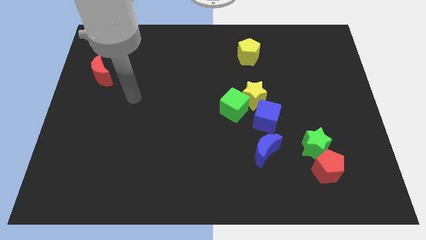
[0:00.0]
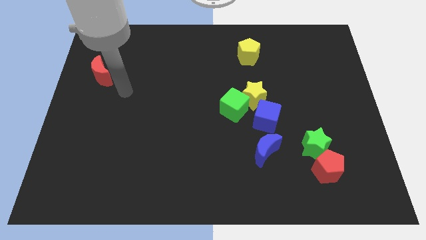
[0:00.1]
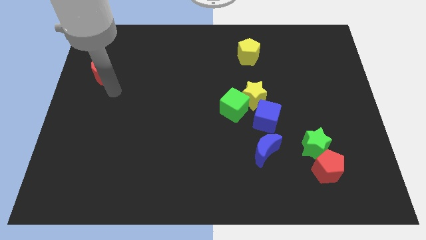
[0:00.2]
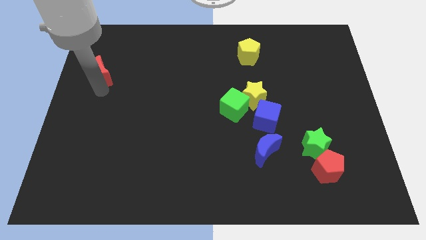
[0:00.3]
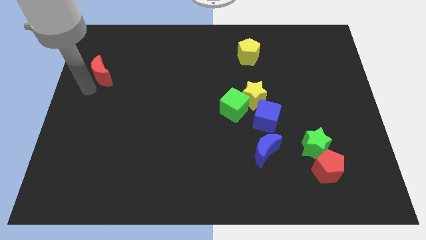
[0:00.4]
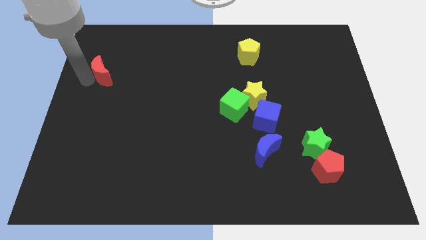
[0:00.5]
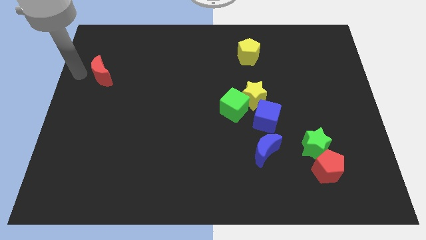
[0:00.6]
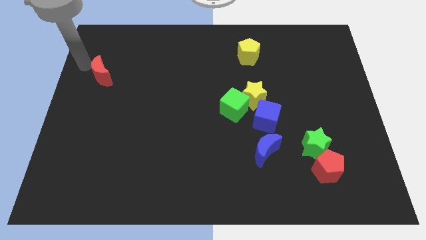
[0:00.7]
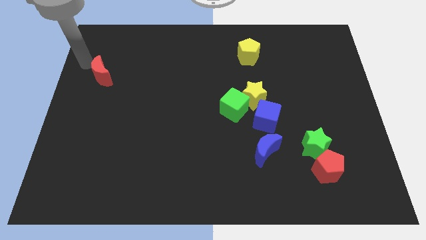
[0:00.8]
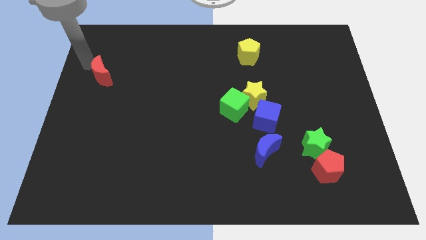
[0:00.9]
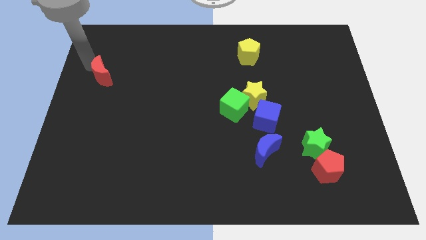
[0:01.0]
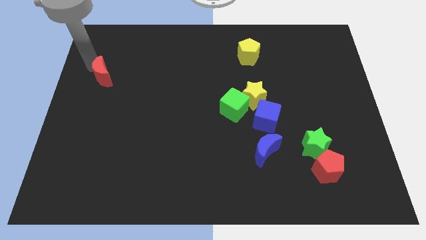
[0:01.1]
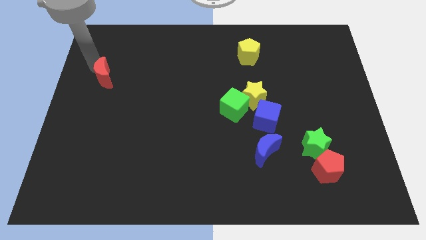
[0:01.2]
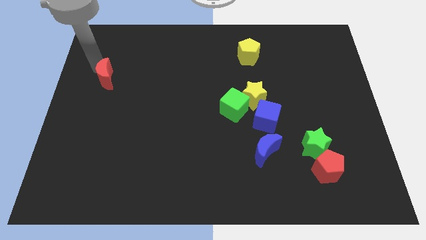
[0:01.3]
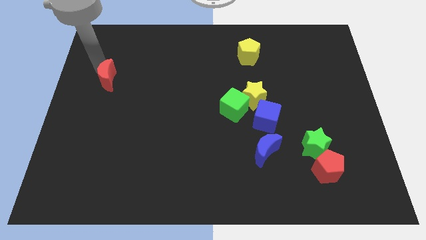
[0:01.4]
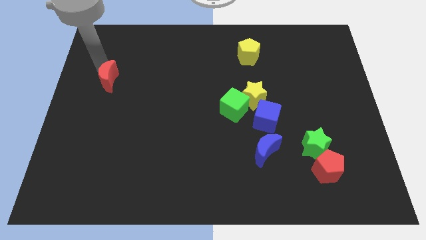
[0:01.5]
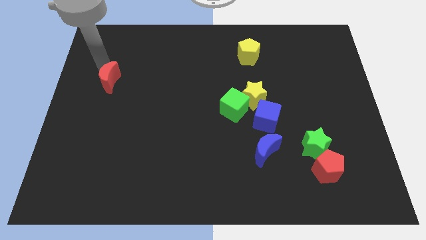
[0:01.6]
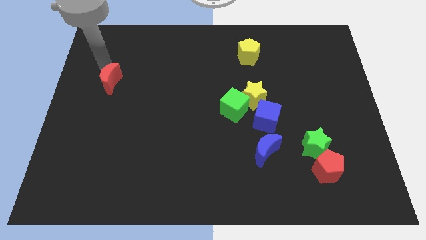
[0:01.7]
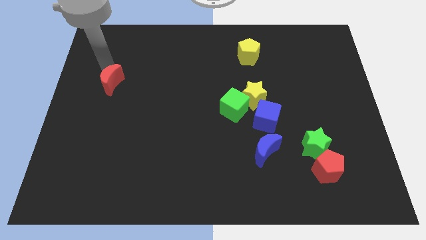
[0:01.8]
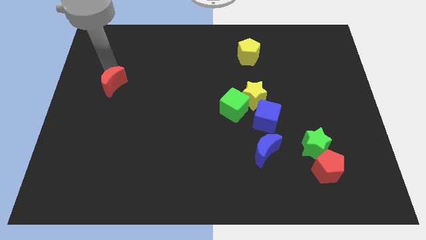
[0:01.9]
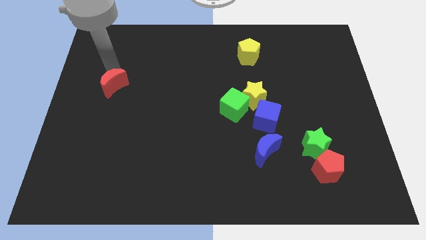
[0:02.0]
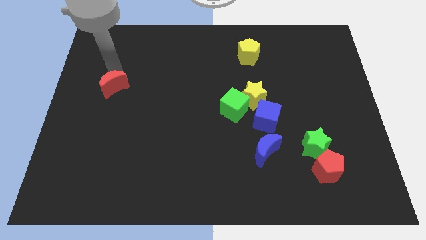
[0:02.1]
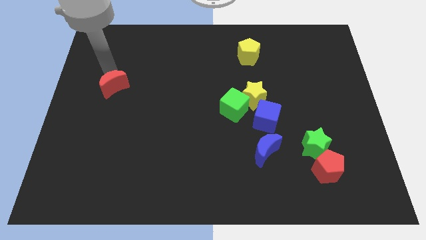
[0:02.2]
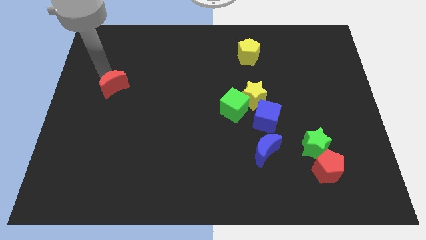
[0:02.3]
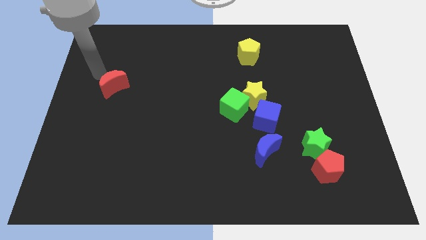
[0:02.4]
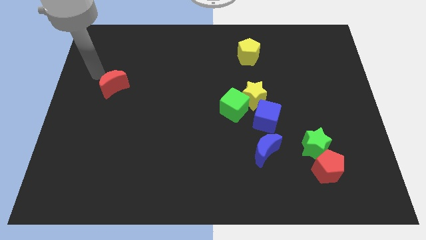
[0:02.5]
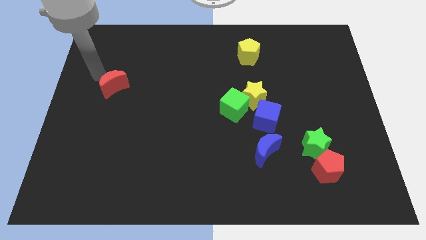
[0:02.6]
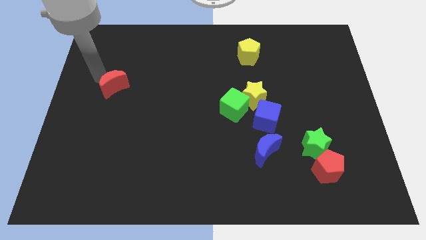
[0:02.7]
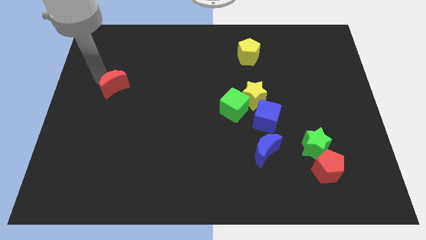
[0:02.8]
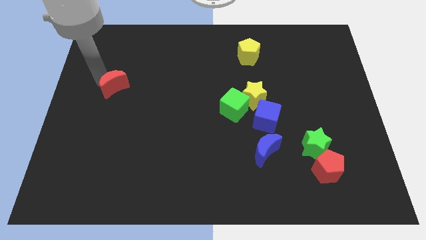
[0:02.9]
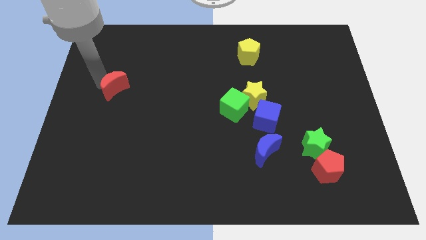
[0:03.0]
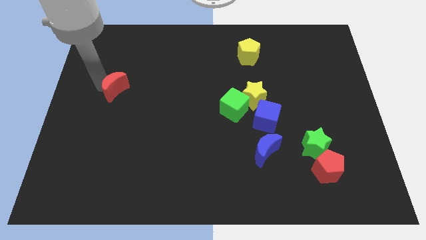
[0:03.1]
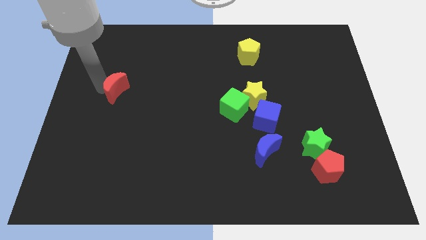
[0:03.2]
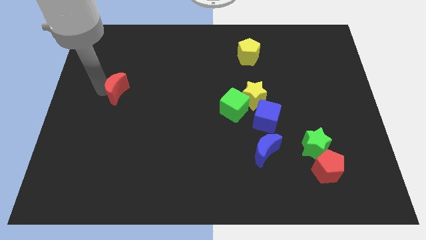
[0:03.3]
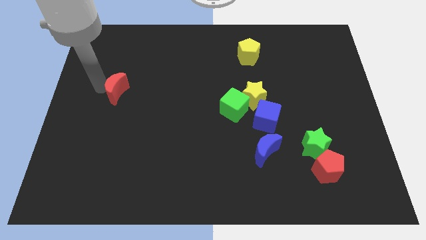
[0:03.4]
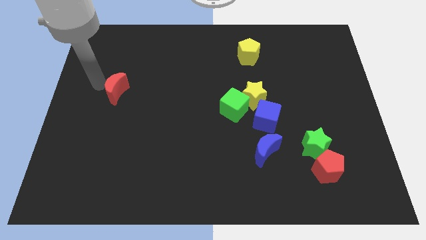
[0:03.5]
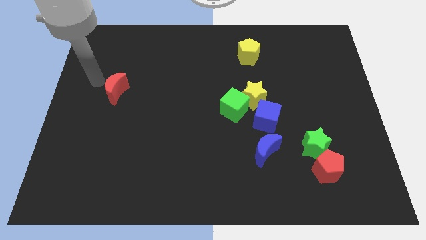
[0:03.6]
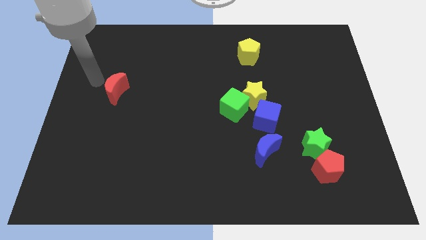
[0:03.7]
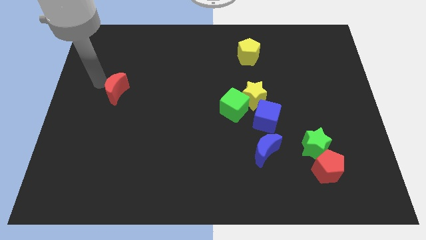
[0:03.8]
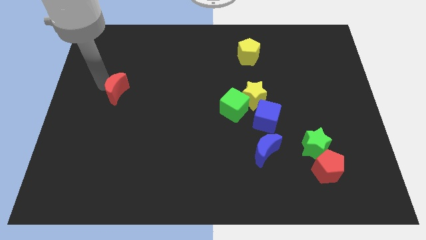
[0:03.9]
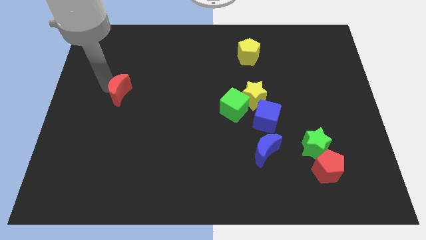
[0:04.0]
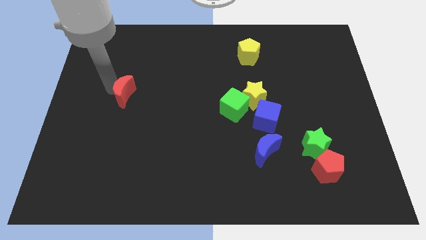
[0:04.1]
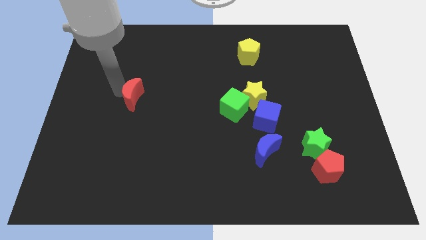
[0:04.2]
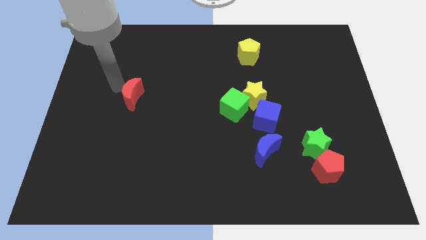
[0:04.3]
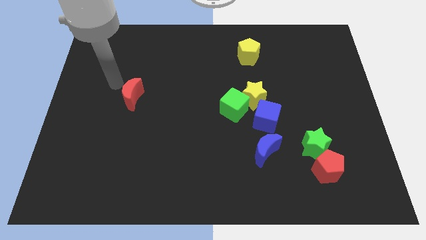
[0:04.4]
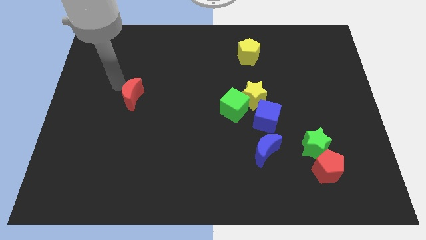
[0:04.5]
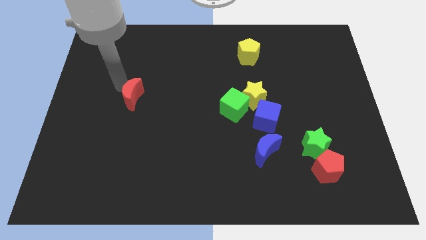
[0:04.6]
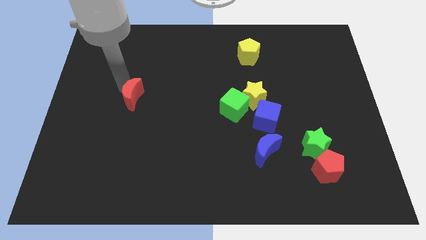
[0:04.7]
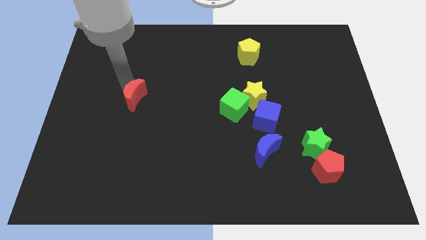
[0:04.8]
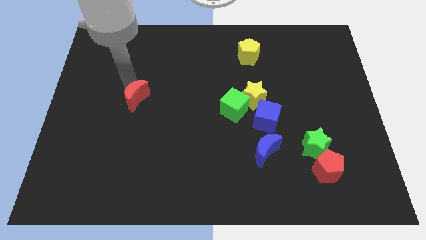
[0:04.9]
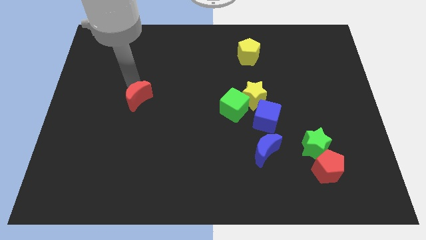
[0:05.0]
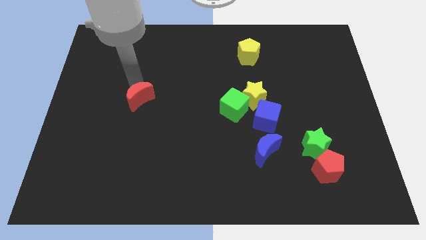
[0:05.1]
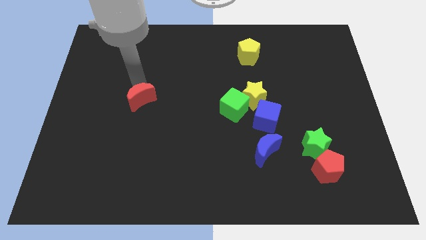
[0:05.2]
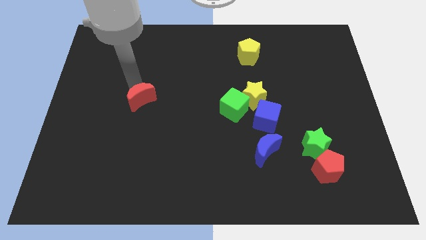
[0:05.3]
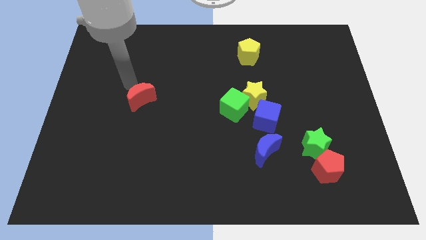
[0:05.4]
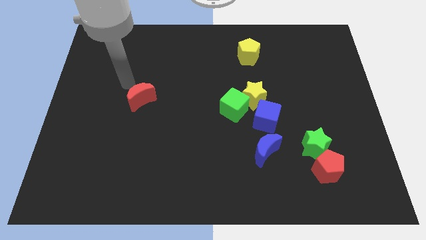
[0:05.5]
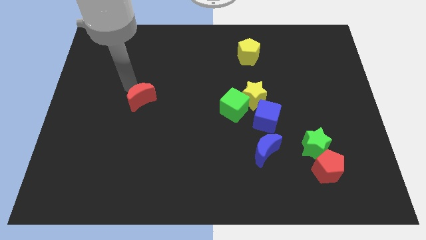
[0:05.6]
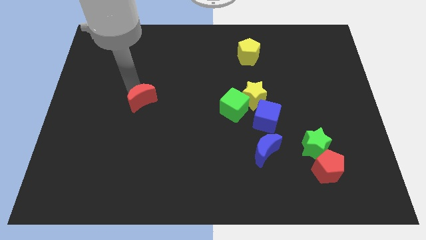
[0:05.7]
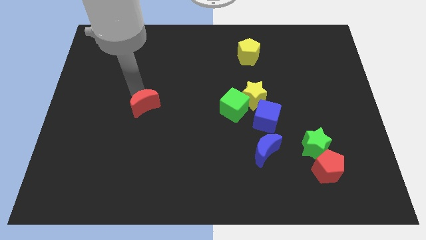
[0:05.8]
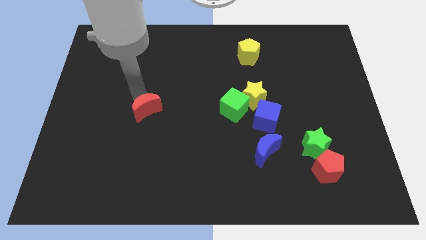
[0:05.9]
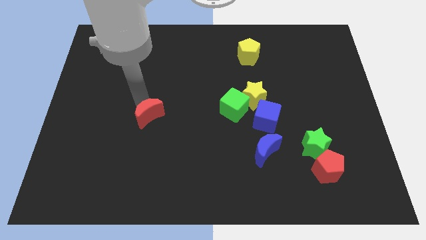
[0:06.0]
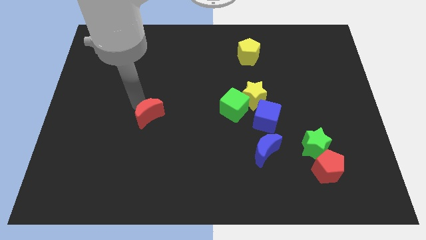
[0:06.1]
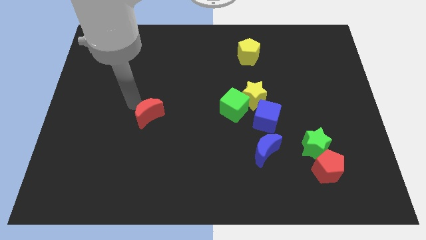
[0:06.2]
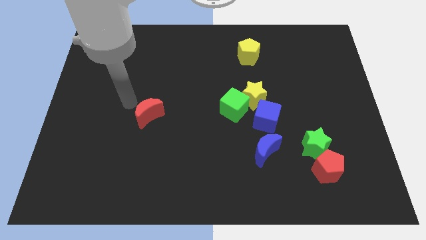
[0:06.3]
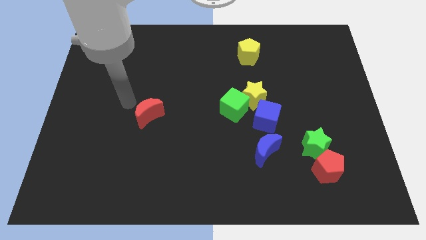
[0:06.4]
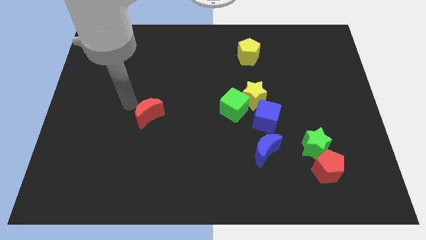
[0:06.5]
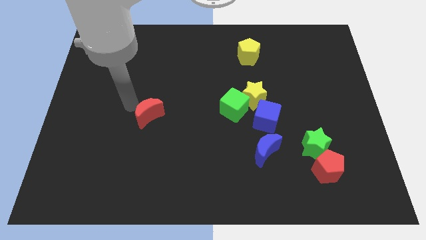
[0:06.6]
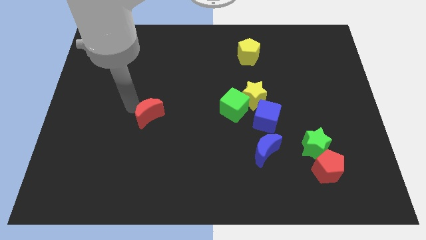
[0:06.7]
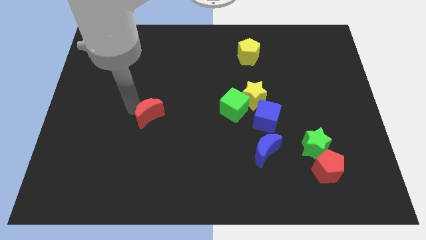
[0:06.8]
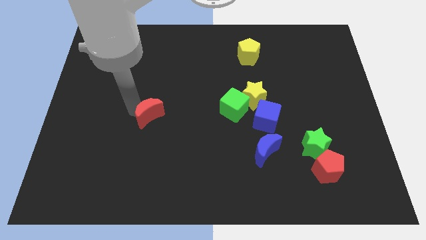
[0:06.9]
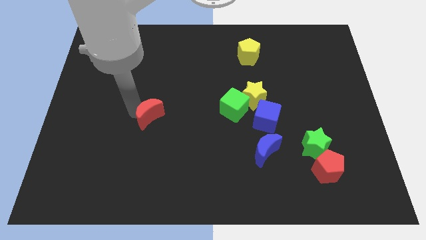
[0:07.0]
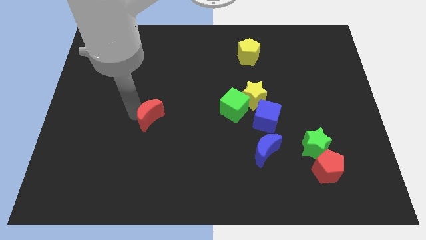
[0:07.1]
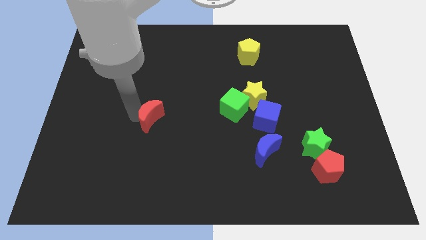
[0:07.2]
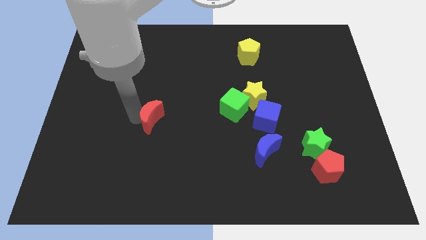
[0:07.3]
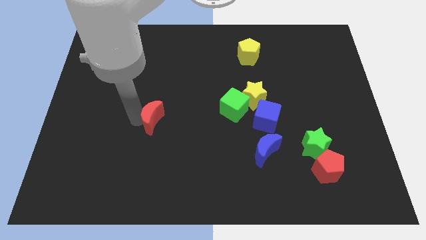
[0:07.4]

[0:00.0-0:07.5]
slide the red moon down and then right
